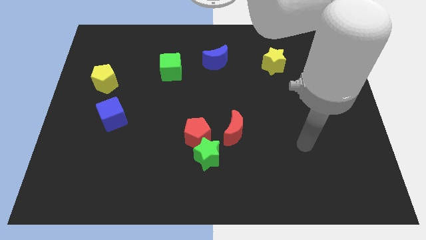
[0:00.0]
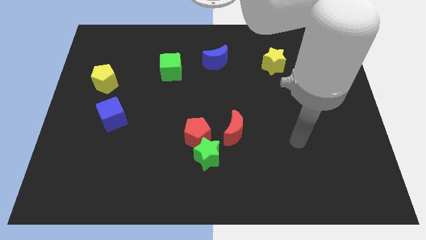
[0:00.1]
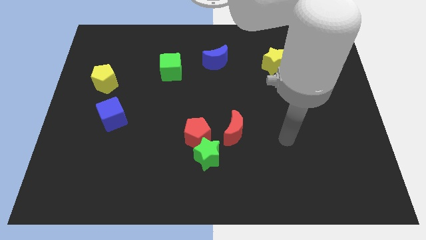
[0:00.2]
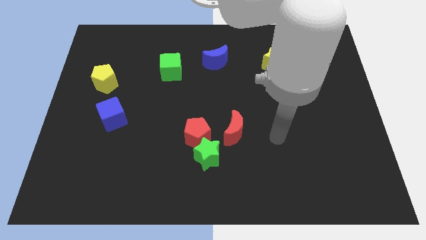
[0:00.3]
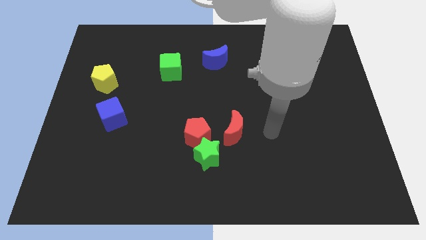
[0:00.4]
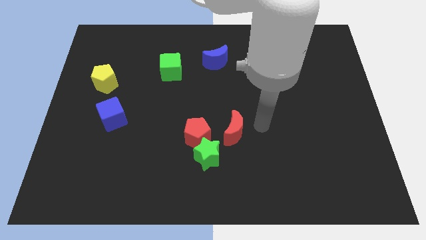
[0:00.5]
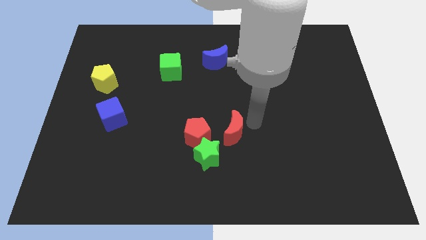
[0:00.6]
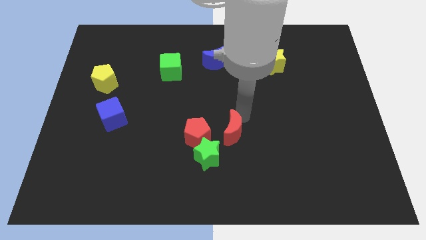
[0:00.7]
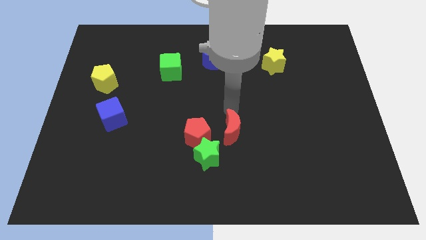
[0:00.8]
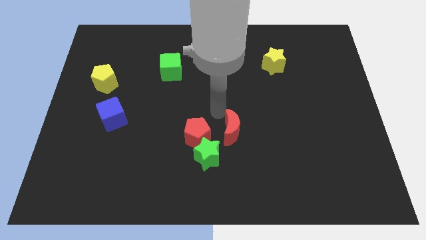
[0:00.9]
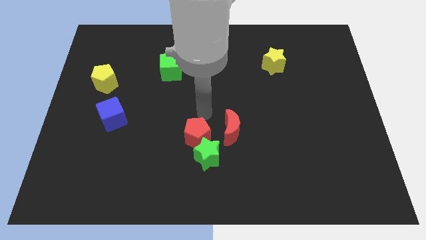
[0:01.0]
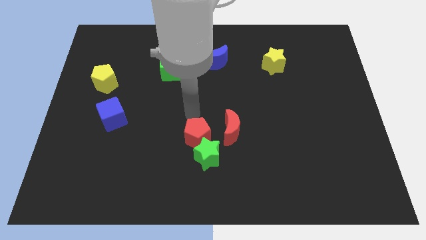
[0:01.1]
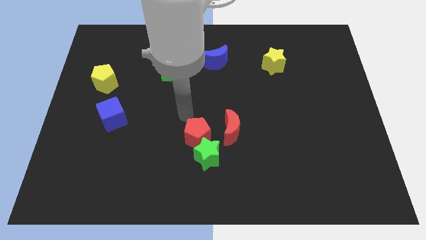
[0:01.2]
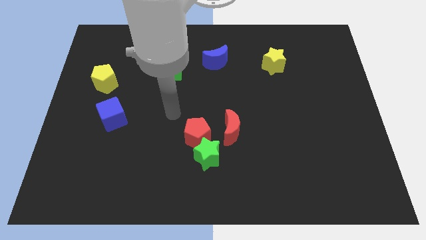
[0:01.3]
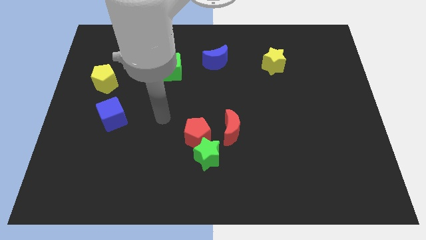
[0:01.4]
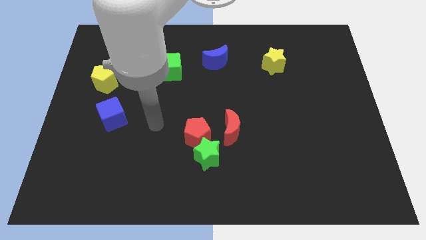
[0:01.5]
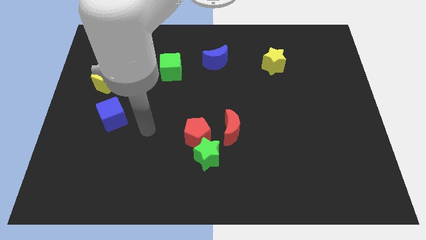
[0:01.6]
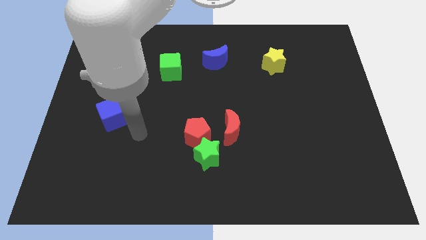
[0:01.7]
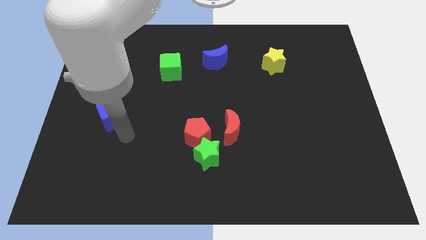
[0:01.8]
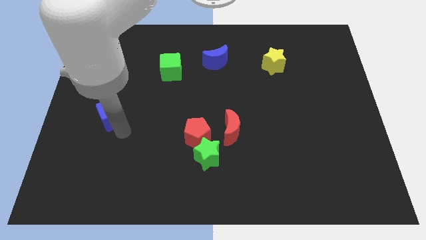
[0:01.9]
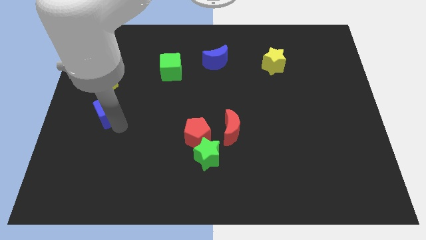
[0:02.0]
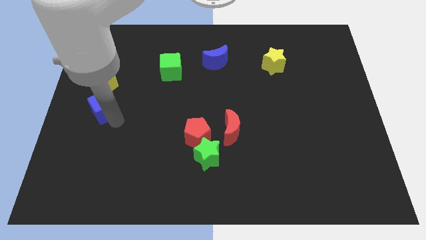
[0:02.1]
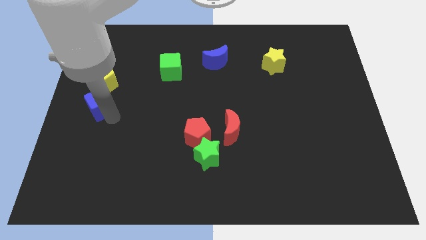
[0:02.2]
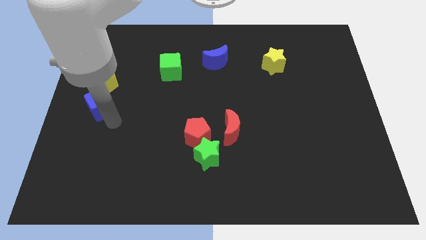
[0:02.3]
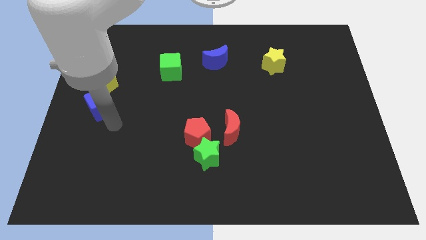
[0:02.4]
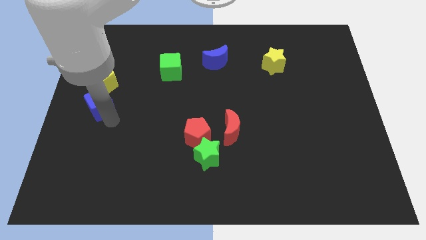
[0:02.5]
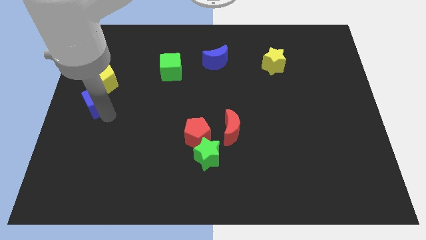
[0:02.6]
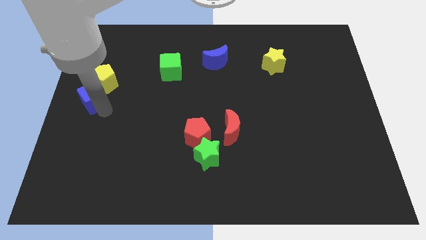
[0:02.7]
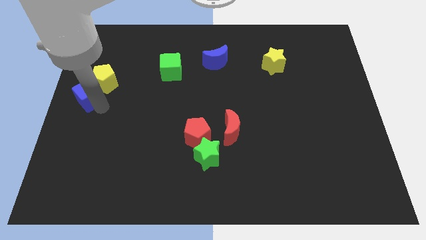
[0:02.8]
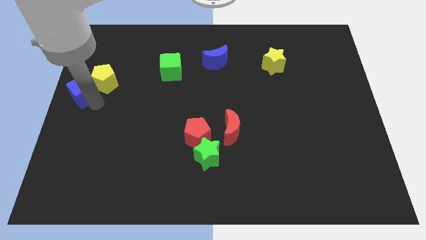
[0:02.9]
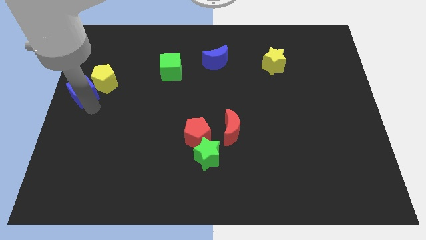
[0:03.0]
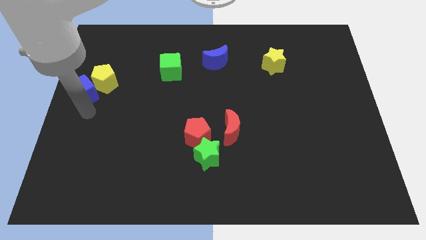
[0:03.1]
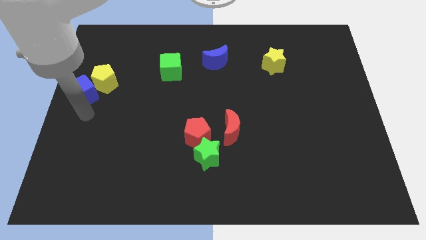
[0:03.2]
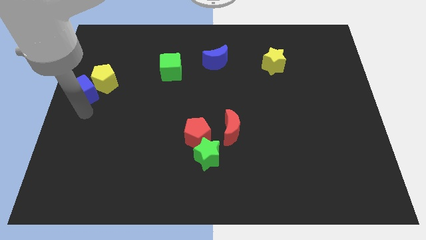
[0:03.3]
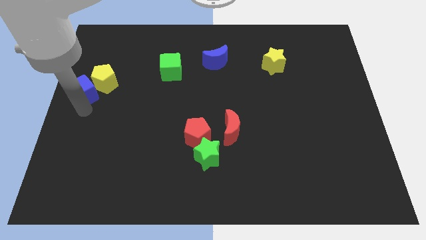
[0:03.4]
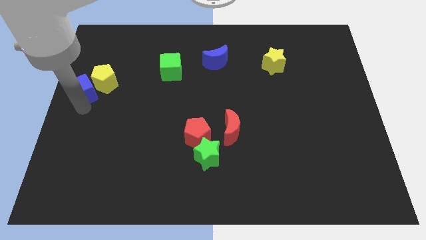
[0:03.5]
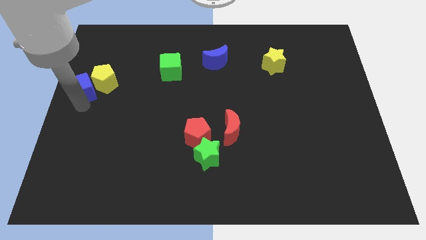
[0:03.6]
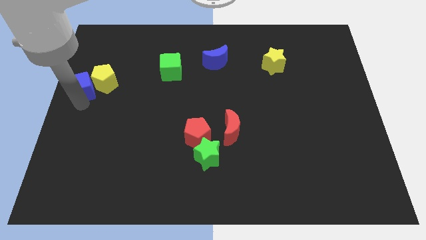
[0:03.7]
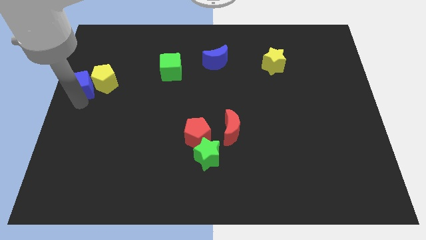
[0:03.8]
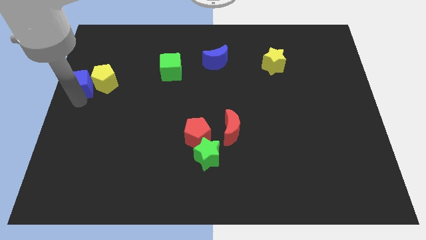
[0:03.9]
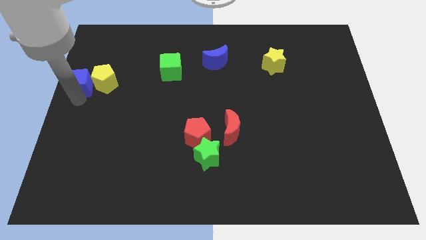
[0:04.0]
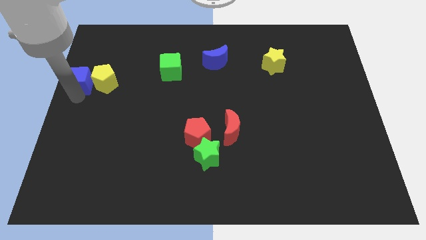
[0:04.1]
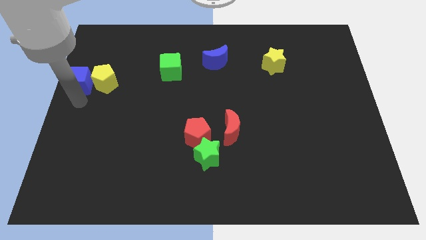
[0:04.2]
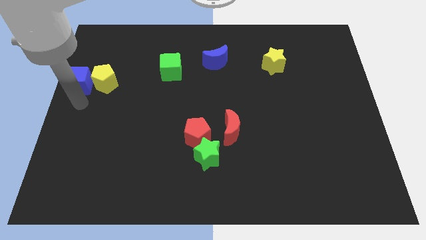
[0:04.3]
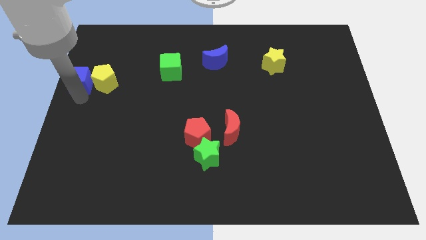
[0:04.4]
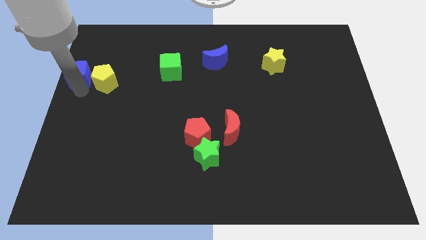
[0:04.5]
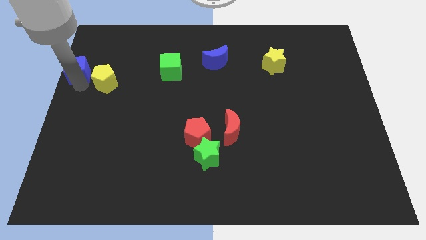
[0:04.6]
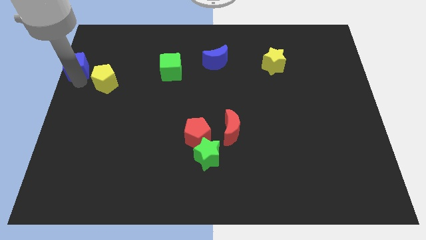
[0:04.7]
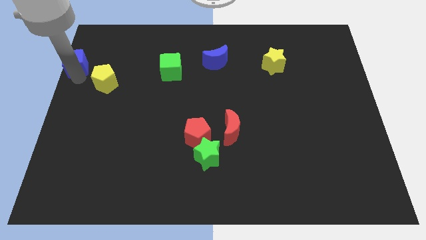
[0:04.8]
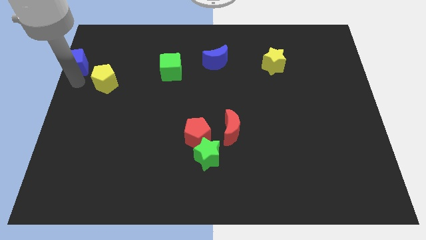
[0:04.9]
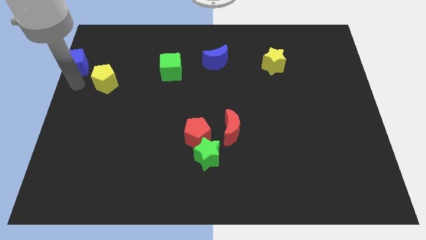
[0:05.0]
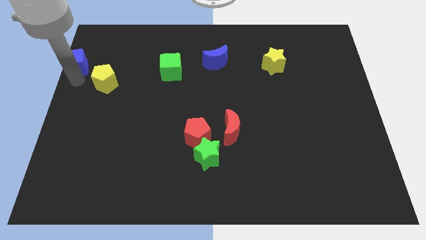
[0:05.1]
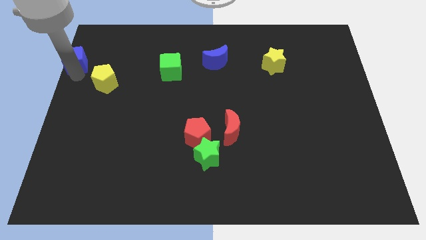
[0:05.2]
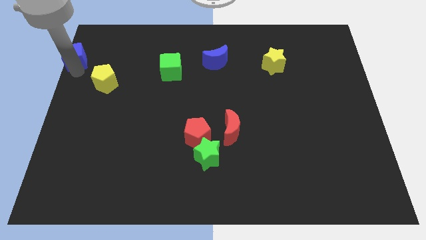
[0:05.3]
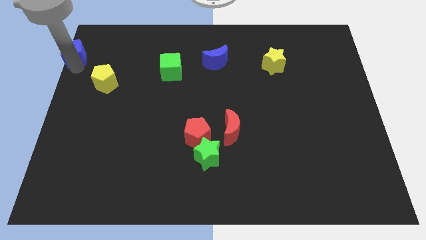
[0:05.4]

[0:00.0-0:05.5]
put the blue cube to the top left corner
